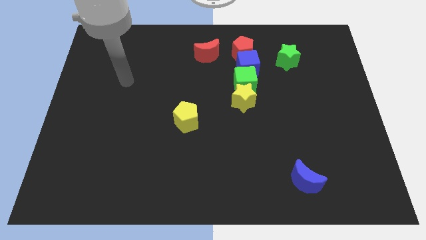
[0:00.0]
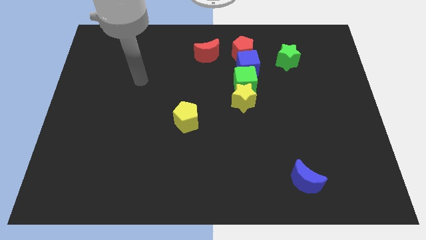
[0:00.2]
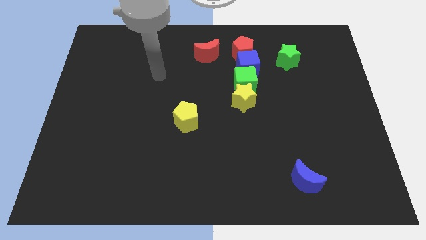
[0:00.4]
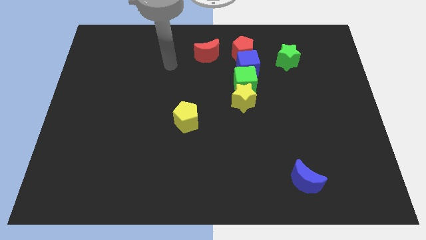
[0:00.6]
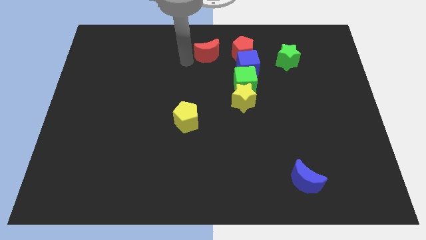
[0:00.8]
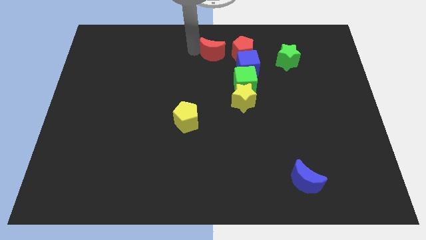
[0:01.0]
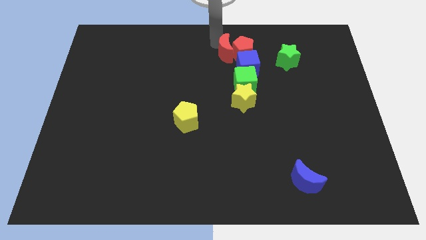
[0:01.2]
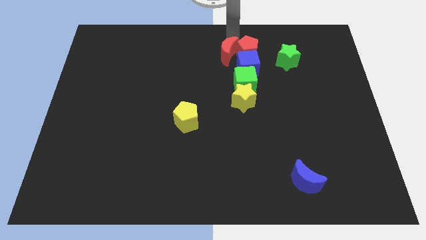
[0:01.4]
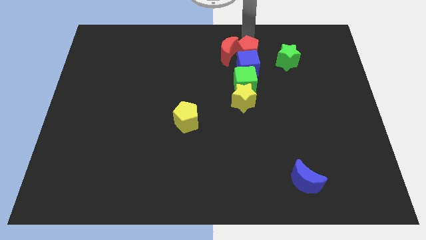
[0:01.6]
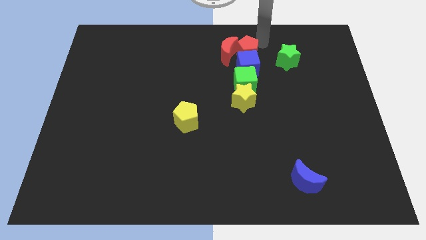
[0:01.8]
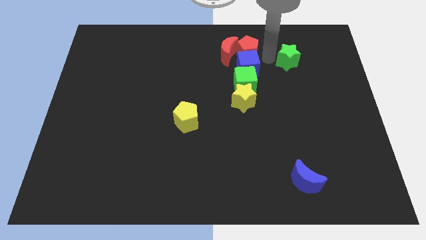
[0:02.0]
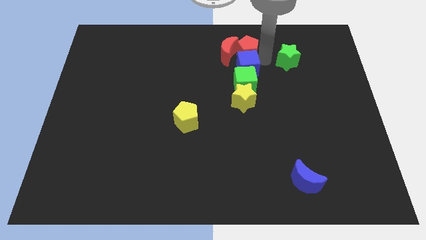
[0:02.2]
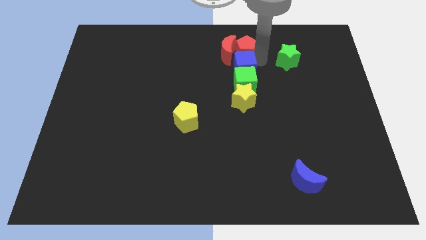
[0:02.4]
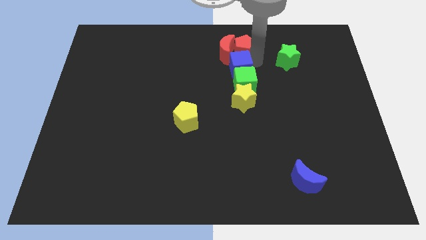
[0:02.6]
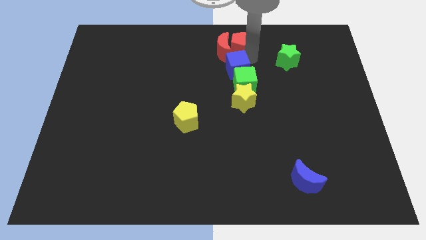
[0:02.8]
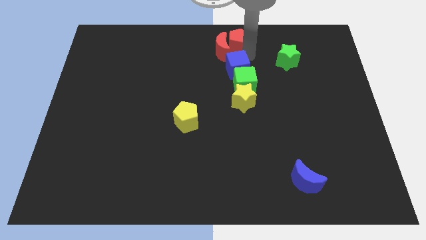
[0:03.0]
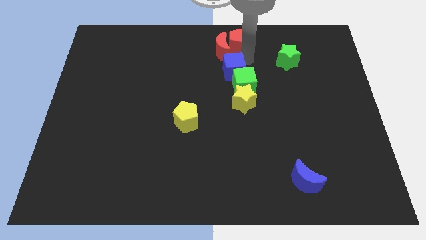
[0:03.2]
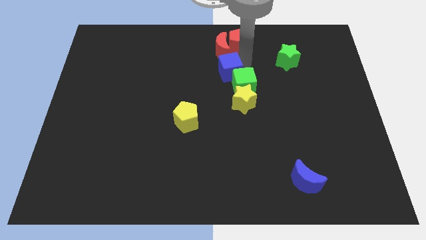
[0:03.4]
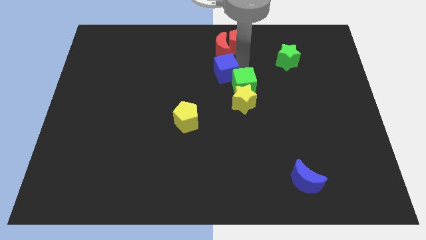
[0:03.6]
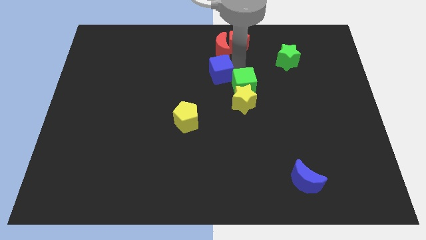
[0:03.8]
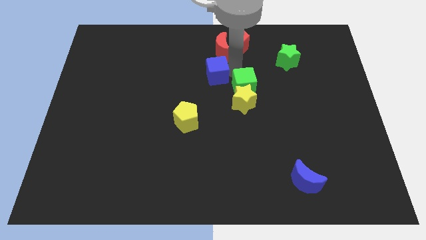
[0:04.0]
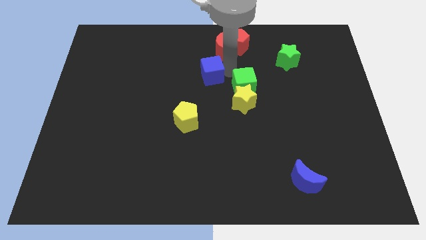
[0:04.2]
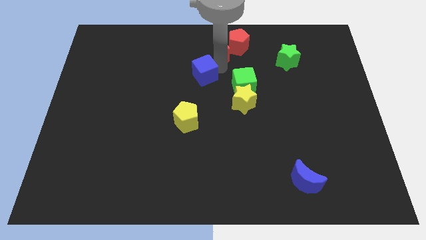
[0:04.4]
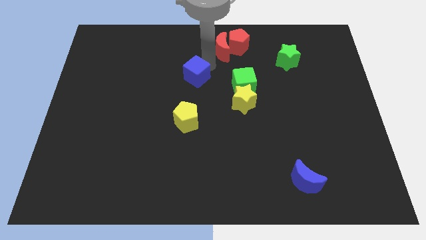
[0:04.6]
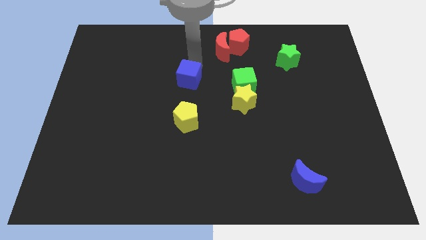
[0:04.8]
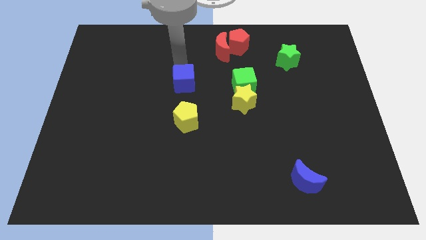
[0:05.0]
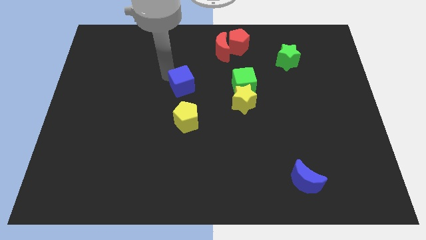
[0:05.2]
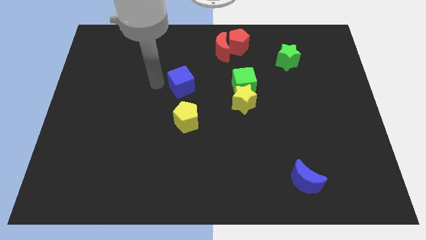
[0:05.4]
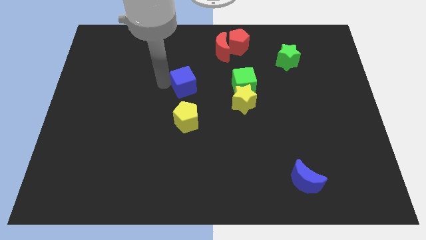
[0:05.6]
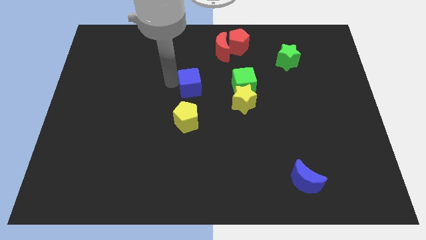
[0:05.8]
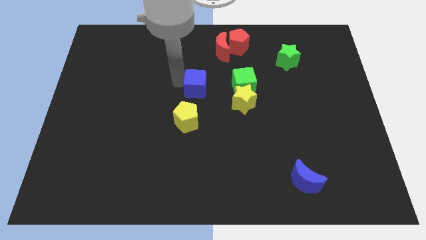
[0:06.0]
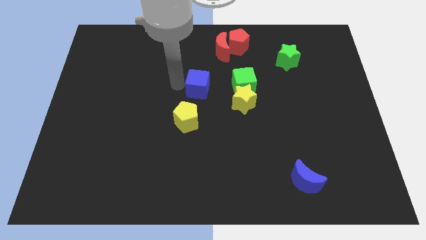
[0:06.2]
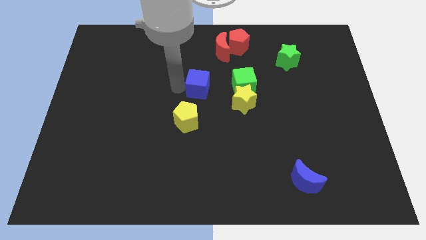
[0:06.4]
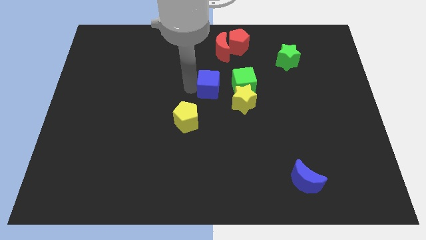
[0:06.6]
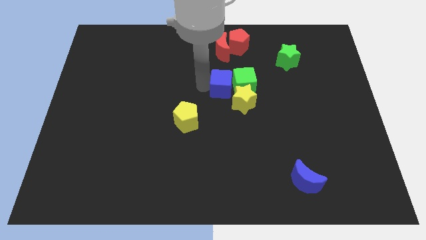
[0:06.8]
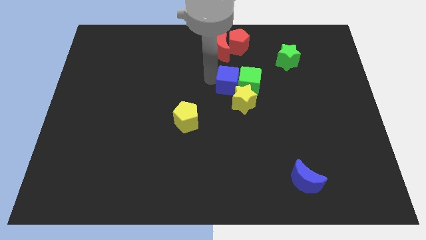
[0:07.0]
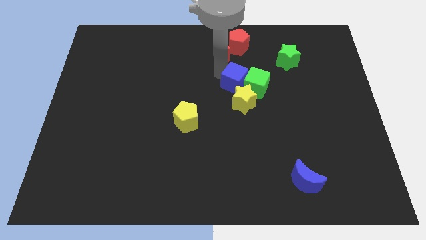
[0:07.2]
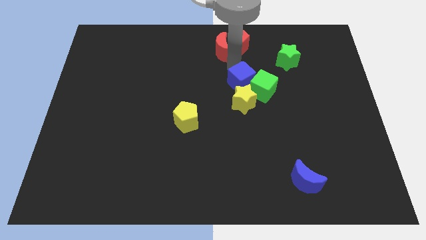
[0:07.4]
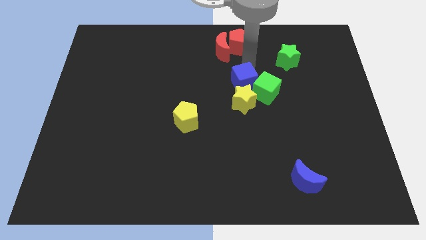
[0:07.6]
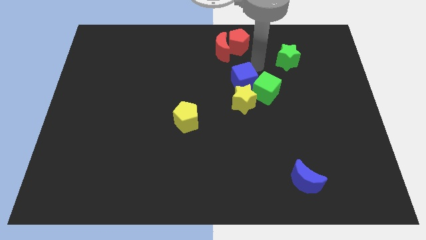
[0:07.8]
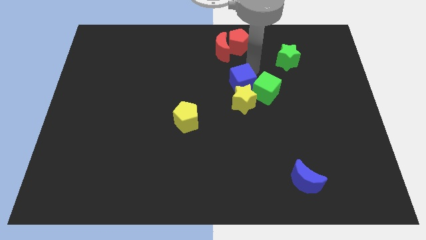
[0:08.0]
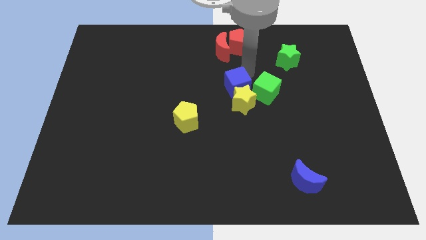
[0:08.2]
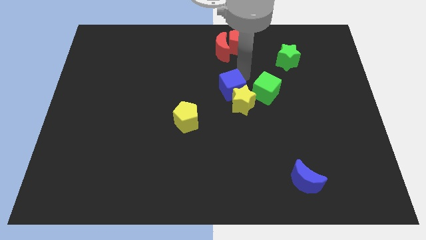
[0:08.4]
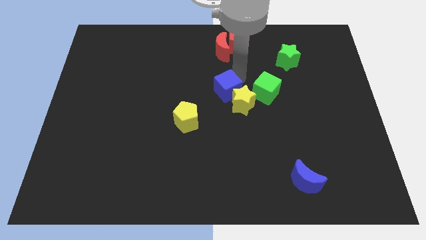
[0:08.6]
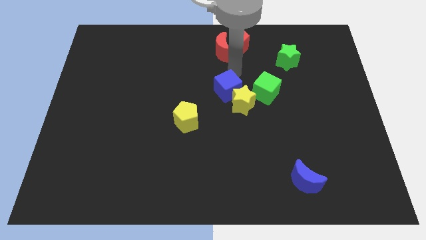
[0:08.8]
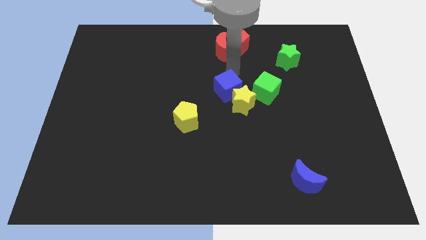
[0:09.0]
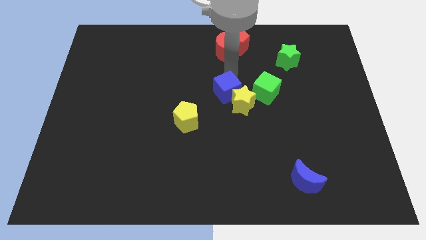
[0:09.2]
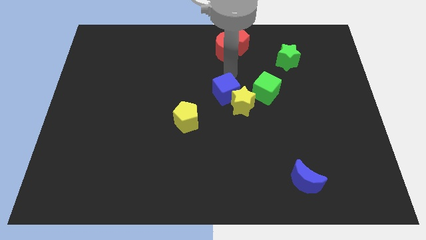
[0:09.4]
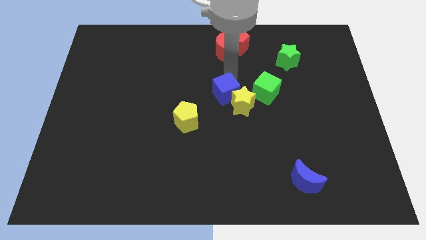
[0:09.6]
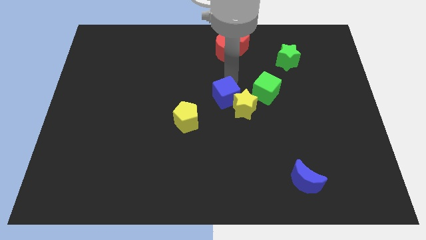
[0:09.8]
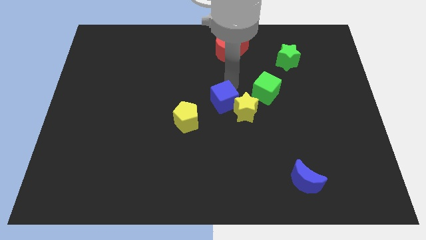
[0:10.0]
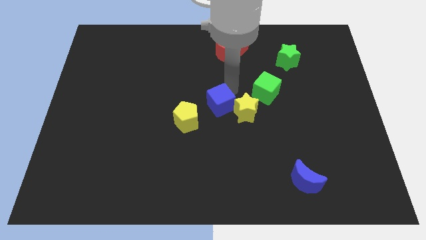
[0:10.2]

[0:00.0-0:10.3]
slide the blue cube to the right side of the yellow pentagon

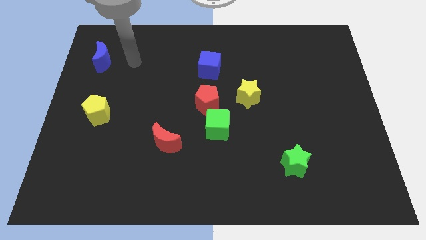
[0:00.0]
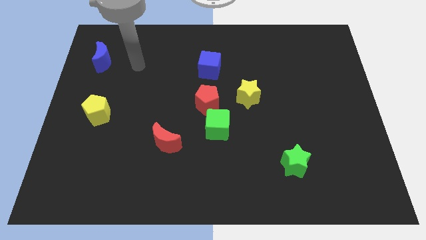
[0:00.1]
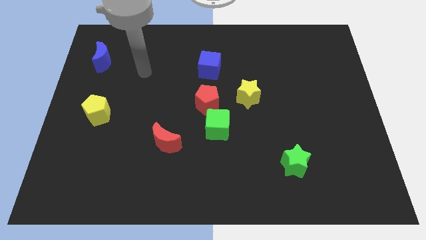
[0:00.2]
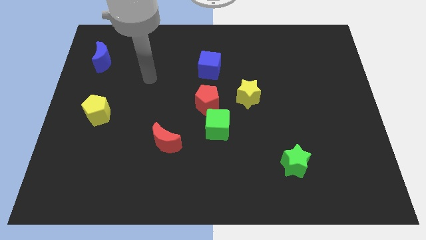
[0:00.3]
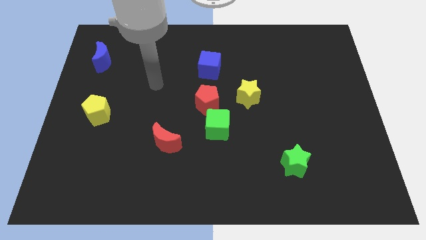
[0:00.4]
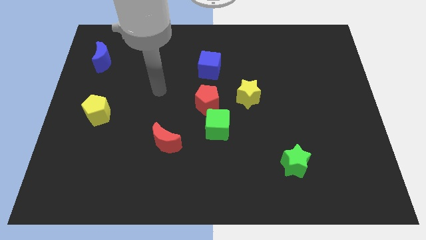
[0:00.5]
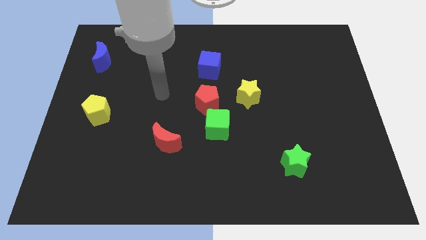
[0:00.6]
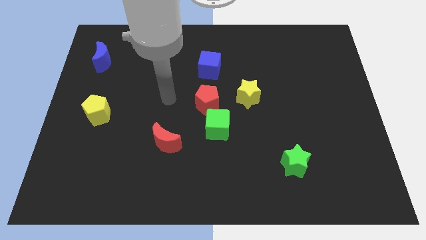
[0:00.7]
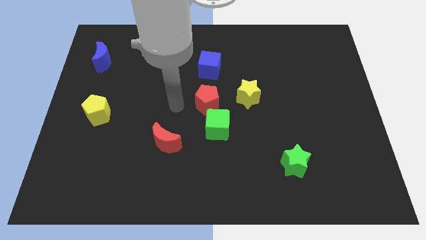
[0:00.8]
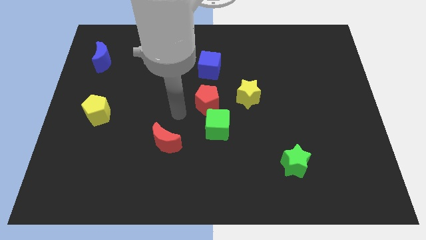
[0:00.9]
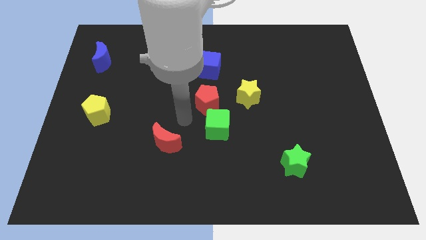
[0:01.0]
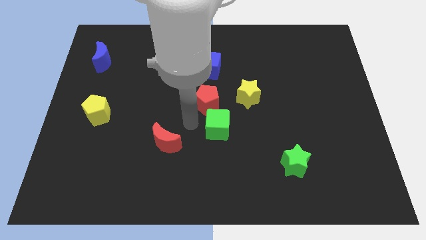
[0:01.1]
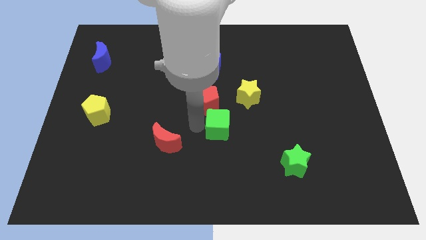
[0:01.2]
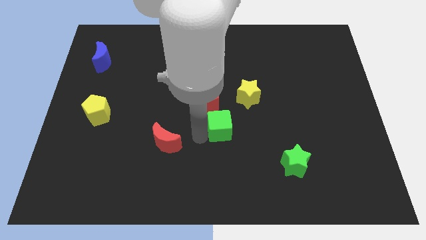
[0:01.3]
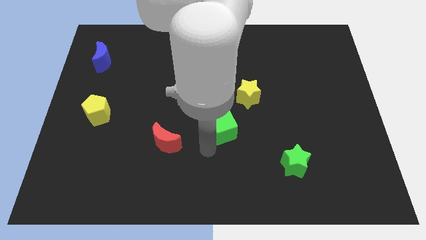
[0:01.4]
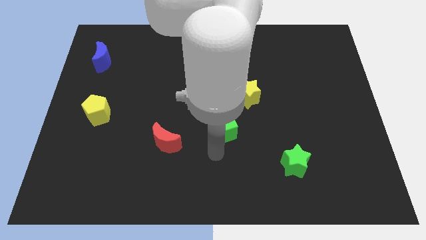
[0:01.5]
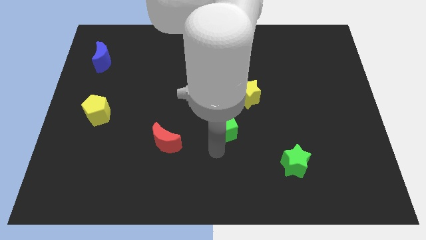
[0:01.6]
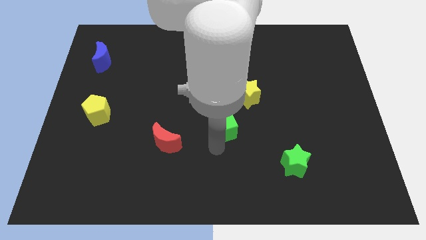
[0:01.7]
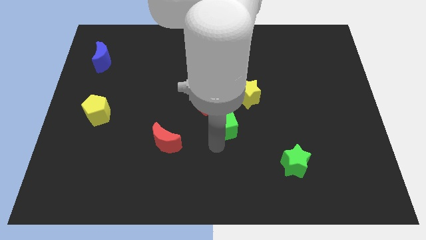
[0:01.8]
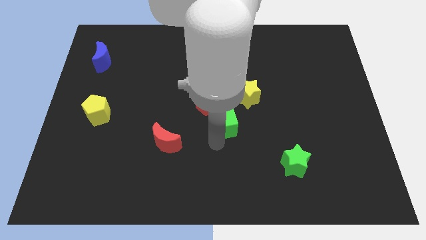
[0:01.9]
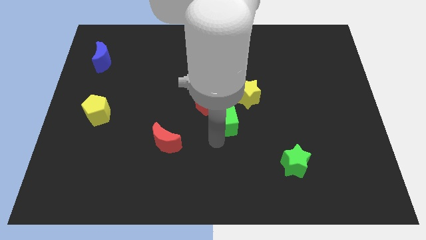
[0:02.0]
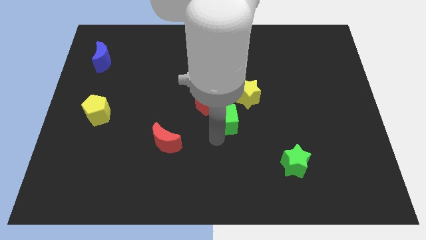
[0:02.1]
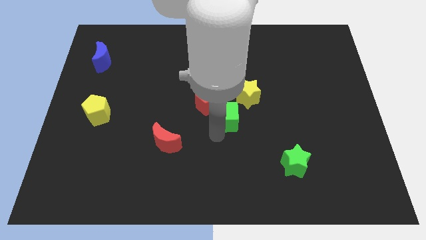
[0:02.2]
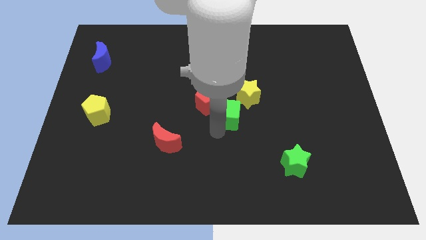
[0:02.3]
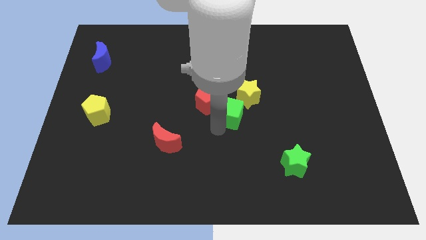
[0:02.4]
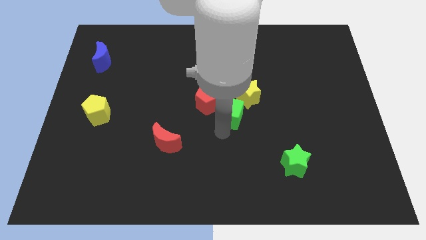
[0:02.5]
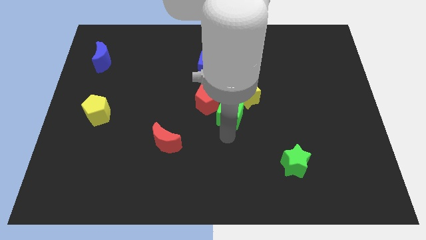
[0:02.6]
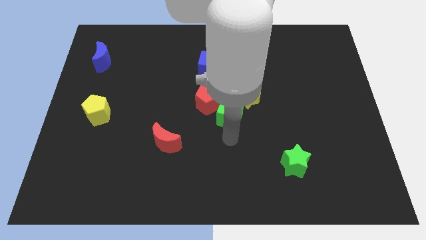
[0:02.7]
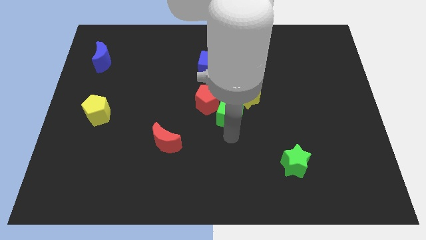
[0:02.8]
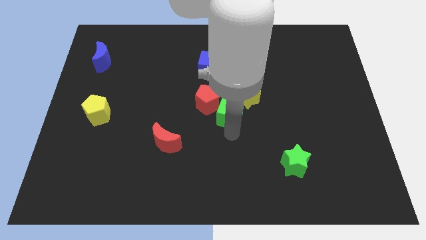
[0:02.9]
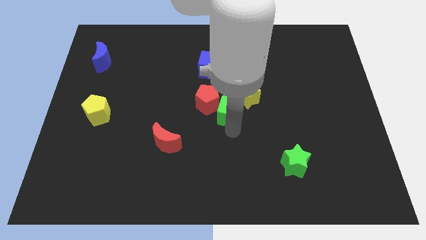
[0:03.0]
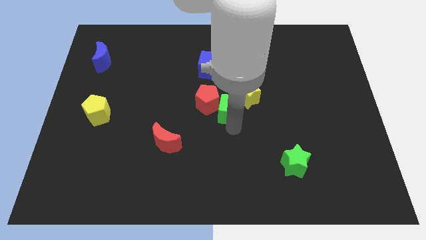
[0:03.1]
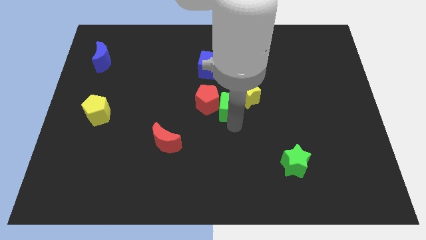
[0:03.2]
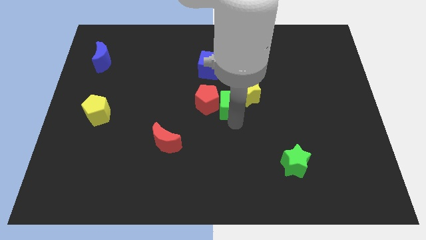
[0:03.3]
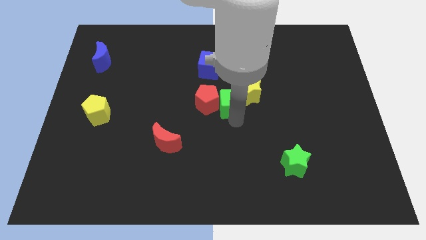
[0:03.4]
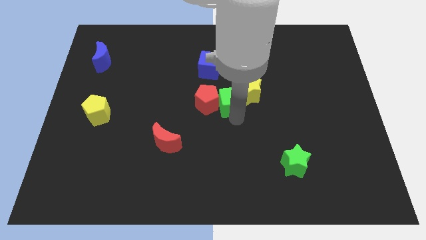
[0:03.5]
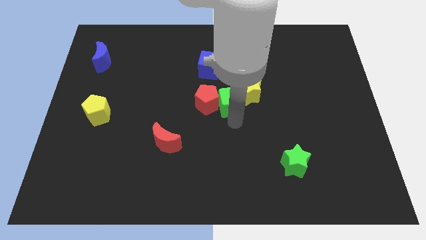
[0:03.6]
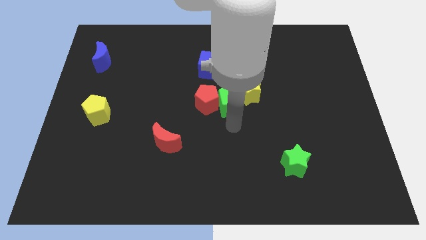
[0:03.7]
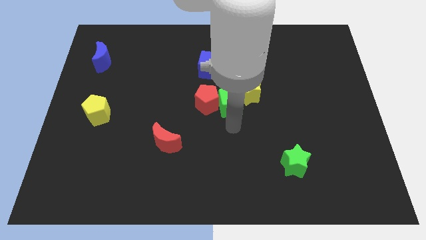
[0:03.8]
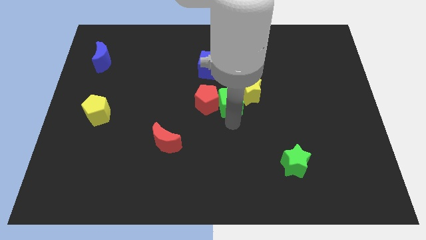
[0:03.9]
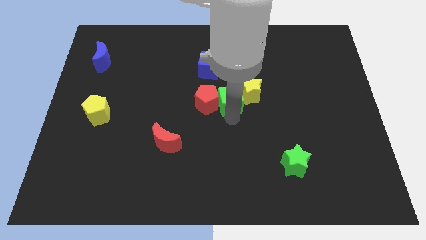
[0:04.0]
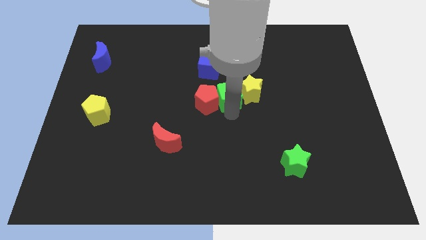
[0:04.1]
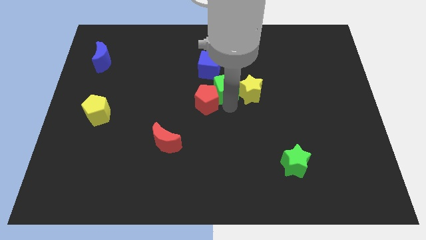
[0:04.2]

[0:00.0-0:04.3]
slide the green cube above the red pentagon
